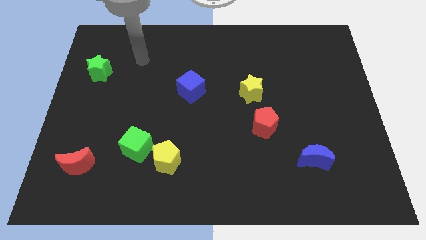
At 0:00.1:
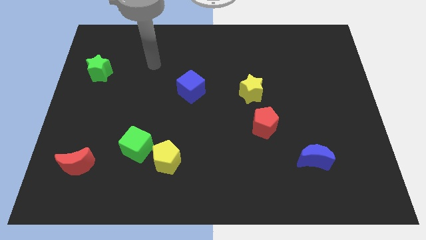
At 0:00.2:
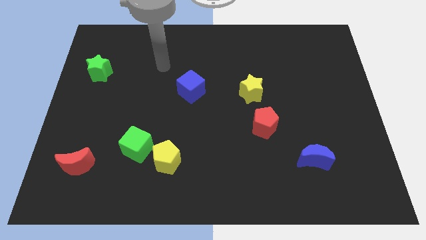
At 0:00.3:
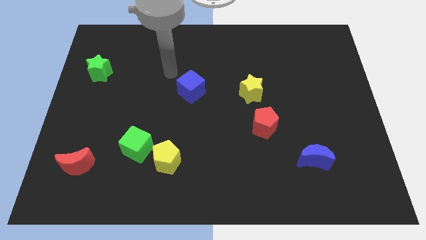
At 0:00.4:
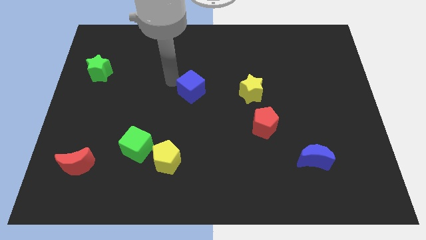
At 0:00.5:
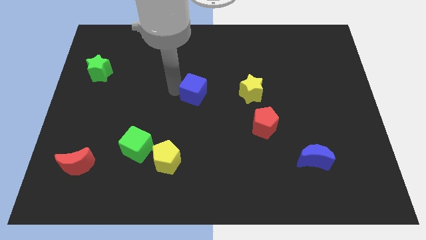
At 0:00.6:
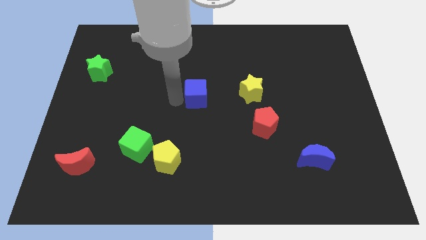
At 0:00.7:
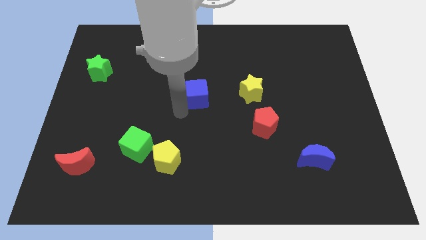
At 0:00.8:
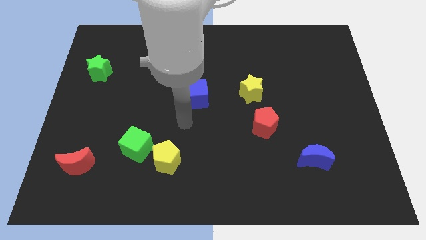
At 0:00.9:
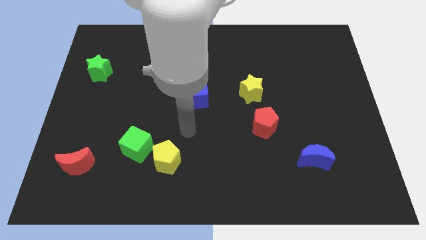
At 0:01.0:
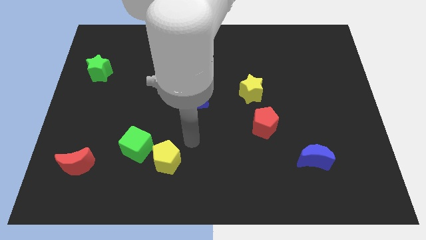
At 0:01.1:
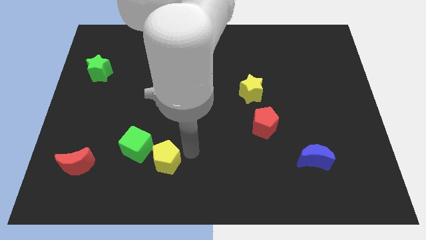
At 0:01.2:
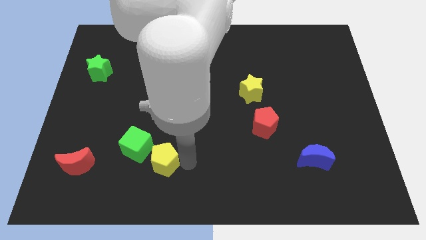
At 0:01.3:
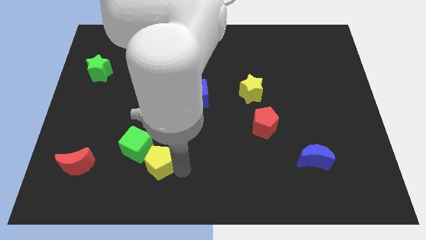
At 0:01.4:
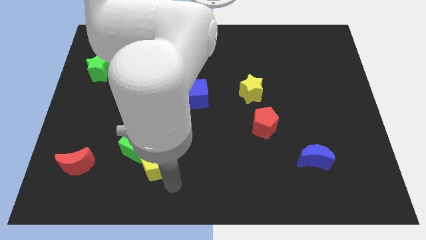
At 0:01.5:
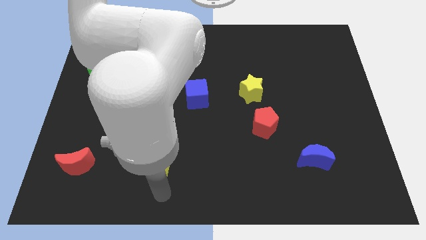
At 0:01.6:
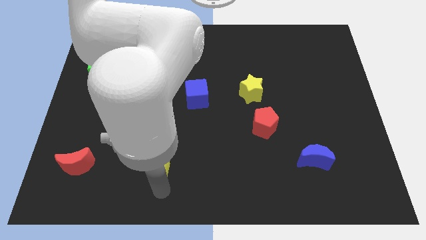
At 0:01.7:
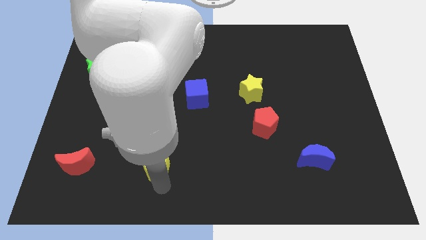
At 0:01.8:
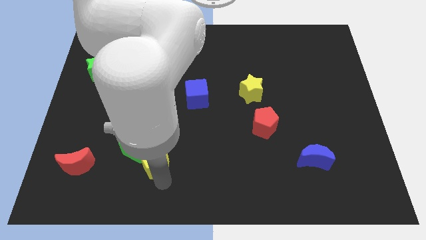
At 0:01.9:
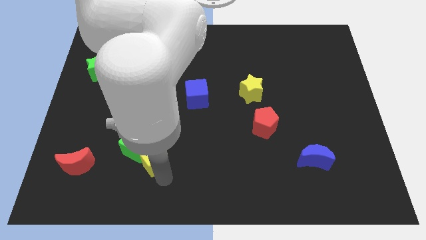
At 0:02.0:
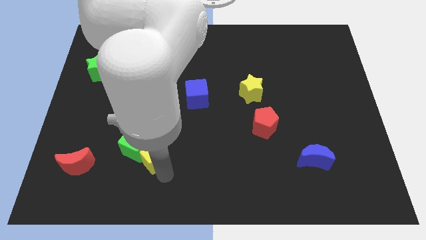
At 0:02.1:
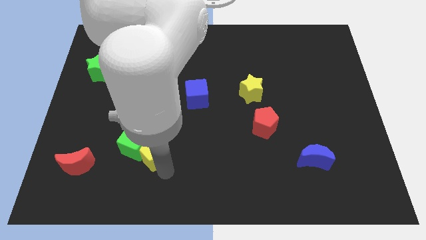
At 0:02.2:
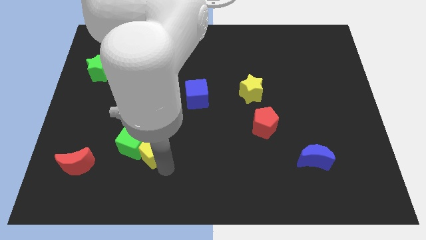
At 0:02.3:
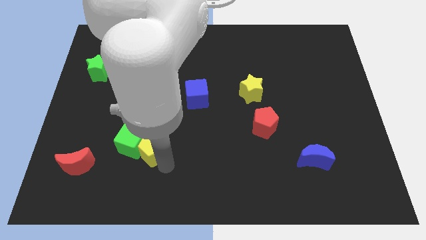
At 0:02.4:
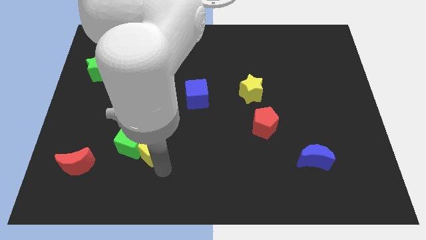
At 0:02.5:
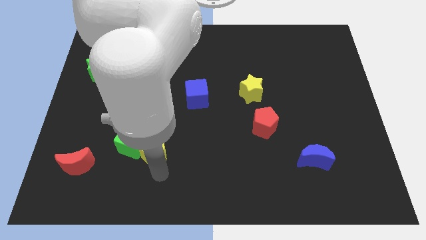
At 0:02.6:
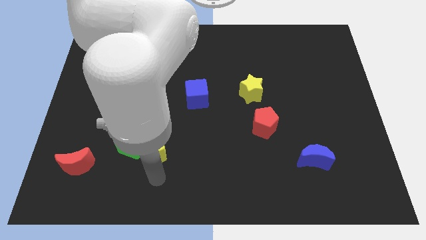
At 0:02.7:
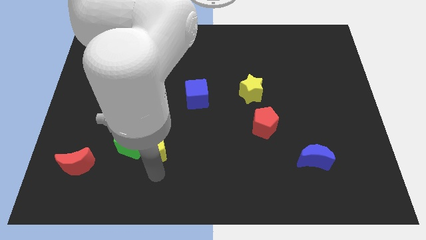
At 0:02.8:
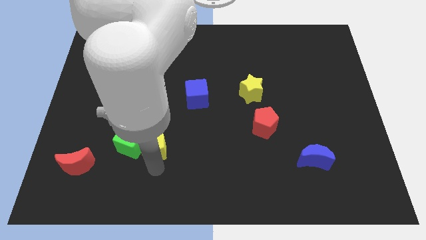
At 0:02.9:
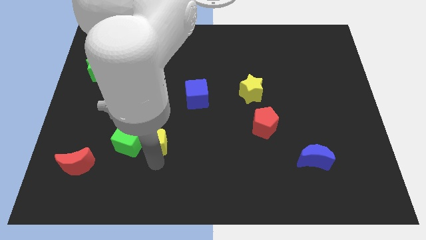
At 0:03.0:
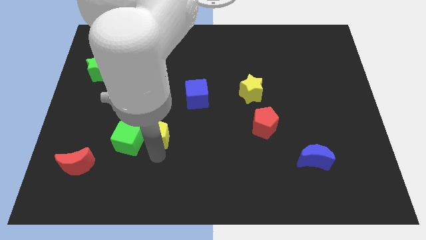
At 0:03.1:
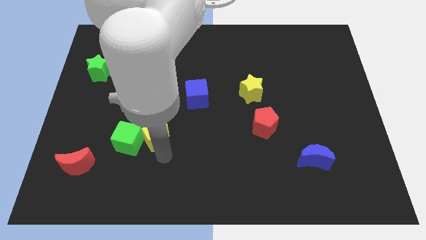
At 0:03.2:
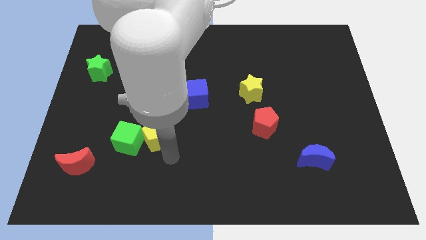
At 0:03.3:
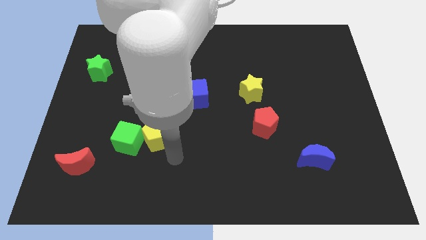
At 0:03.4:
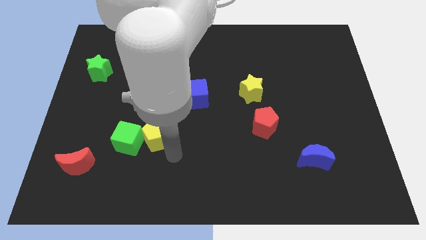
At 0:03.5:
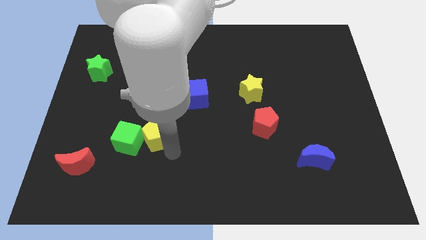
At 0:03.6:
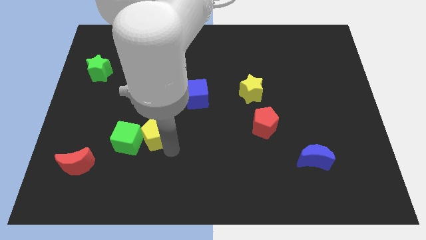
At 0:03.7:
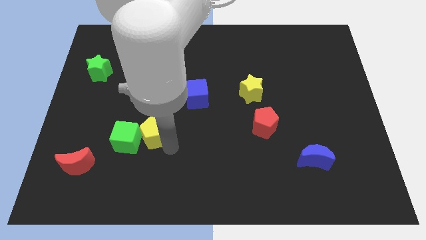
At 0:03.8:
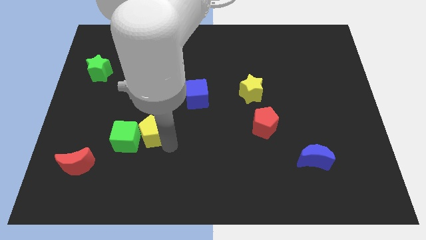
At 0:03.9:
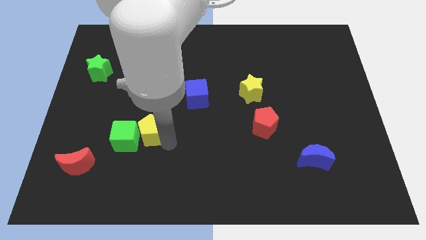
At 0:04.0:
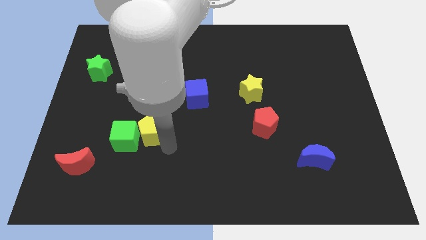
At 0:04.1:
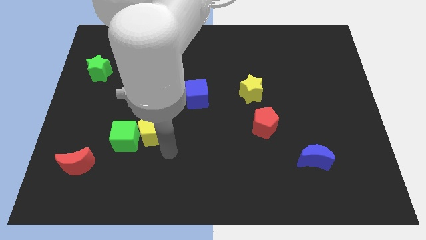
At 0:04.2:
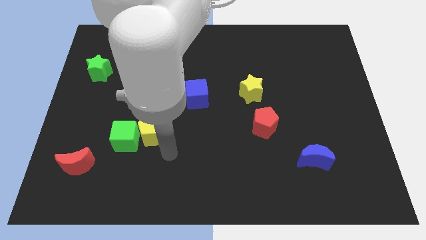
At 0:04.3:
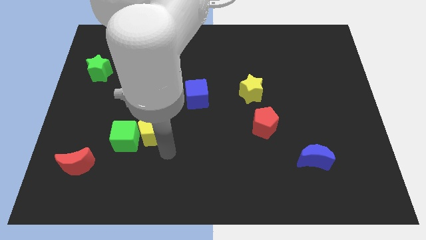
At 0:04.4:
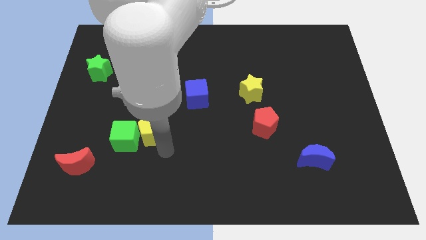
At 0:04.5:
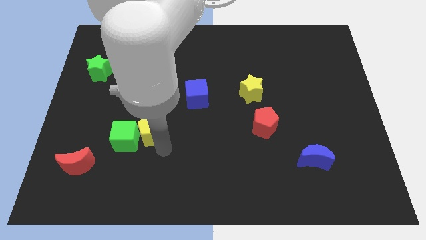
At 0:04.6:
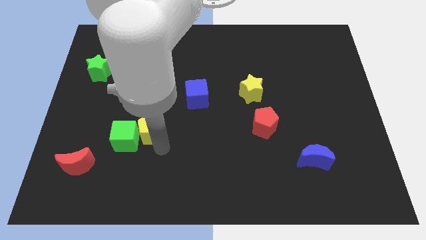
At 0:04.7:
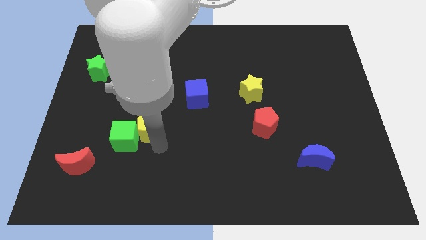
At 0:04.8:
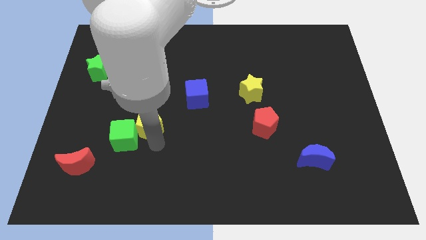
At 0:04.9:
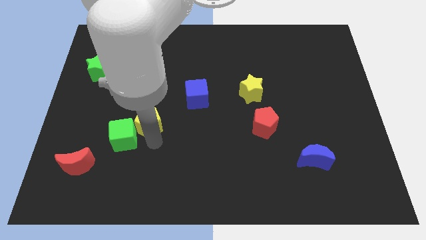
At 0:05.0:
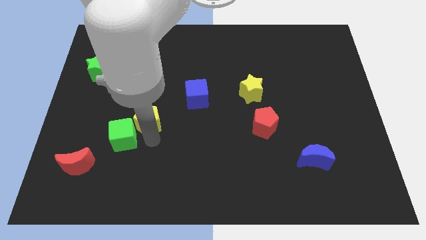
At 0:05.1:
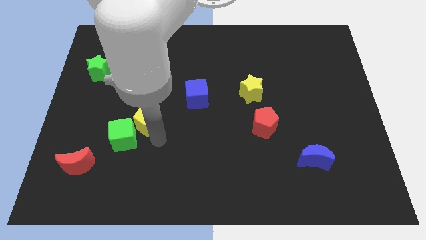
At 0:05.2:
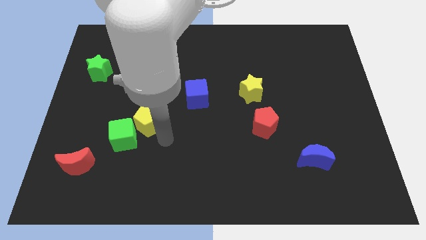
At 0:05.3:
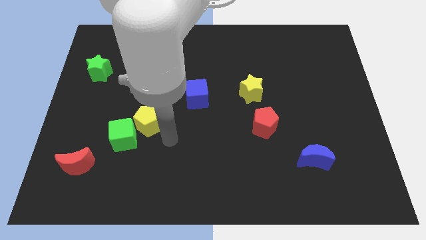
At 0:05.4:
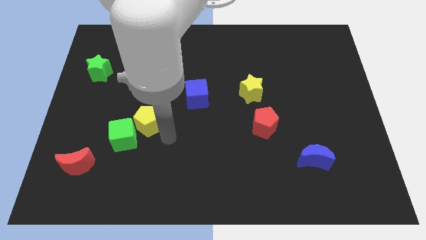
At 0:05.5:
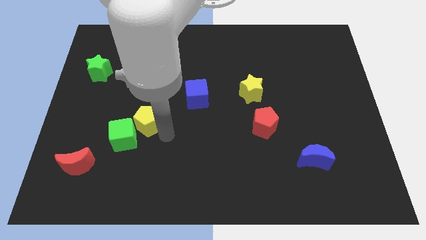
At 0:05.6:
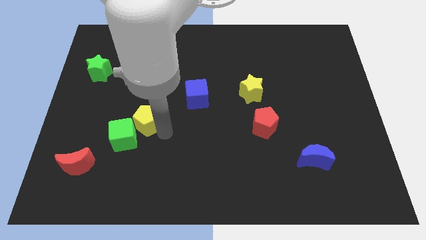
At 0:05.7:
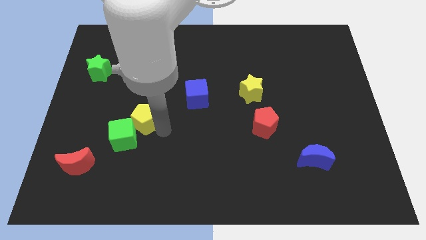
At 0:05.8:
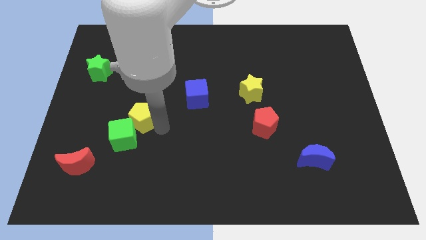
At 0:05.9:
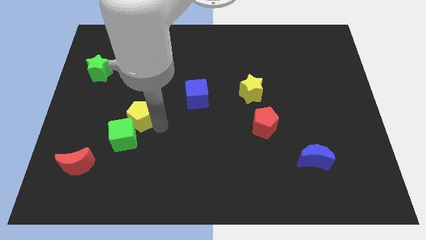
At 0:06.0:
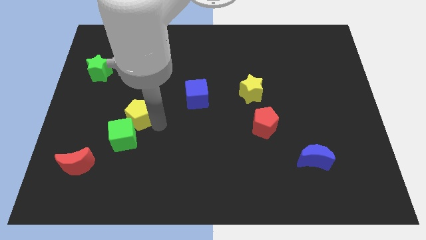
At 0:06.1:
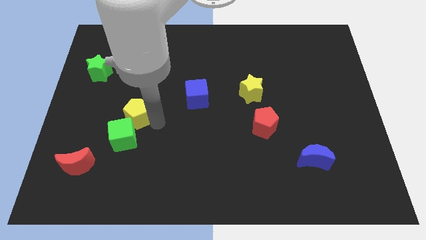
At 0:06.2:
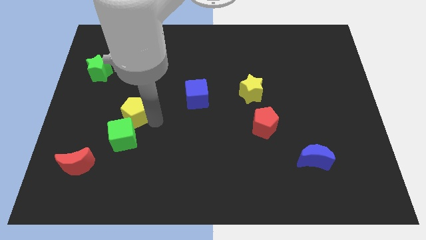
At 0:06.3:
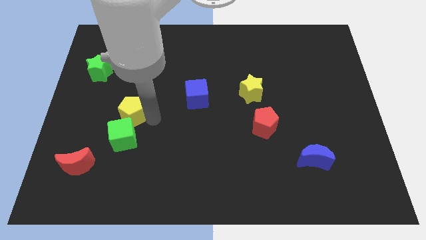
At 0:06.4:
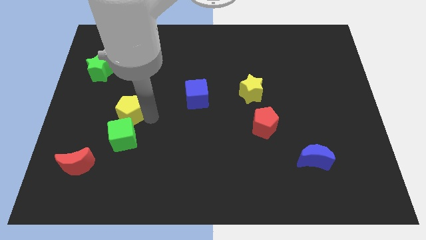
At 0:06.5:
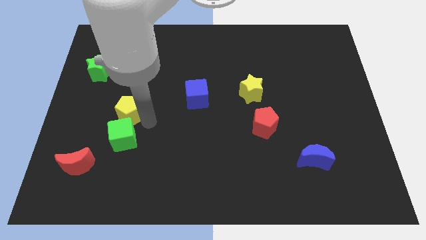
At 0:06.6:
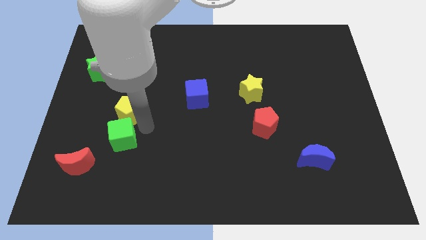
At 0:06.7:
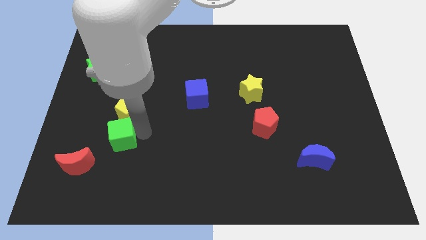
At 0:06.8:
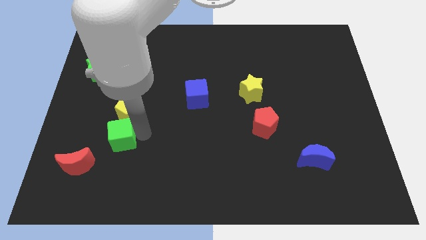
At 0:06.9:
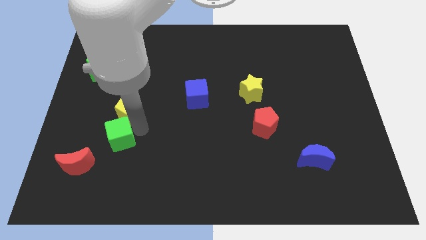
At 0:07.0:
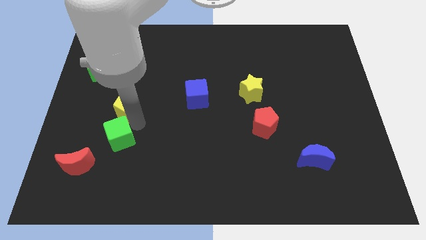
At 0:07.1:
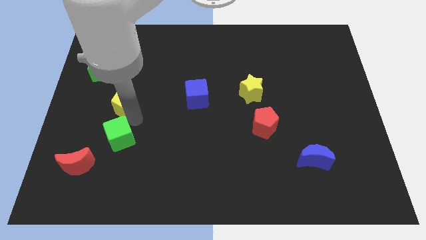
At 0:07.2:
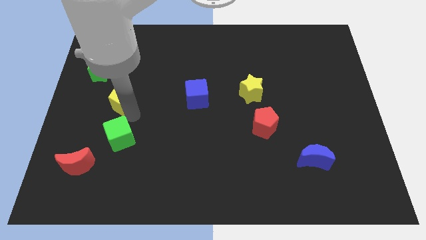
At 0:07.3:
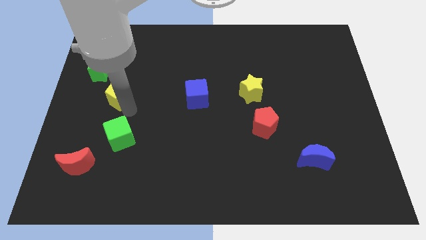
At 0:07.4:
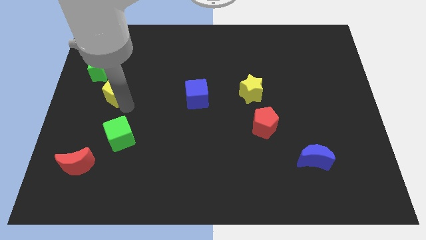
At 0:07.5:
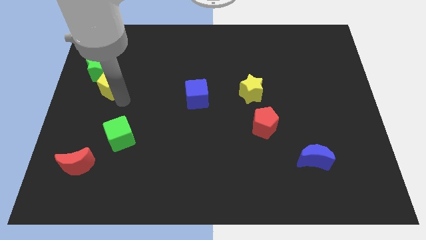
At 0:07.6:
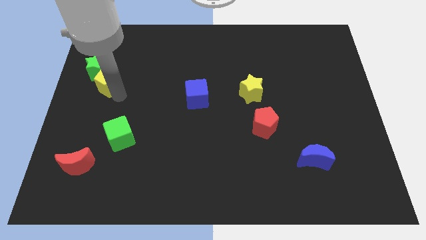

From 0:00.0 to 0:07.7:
move the yellow pentagon towards the green star
